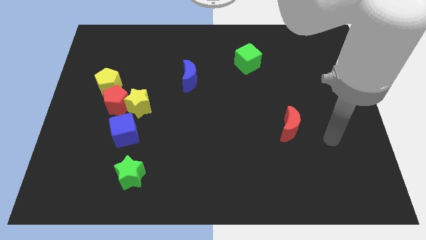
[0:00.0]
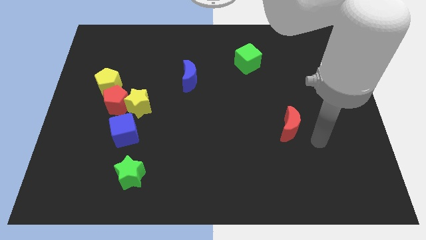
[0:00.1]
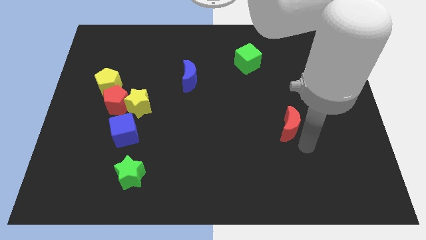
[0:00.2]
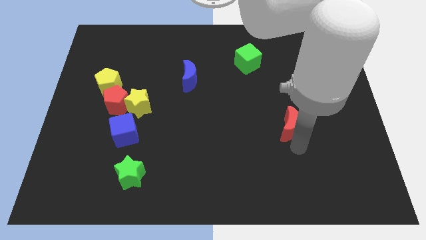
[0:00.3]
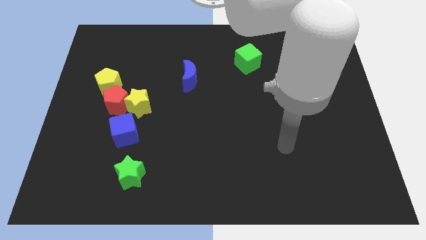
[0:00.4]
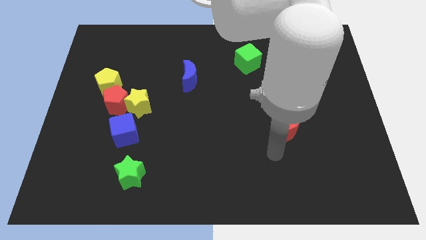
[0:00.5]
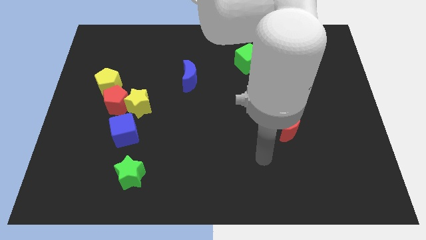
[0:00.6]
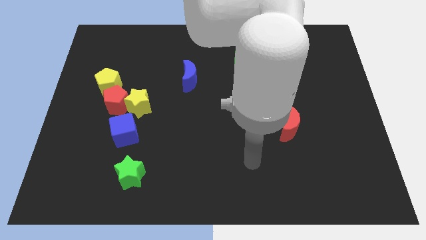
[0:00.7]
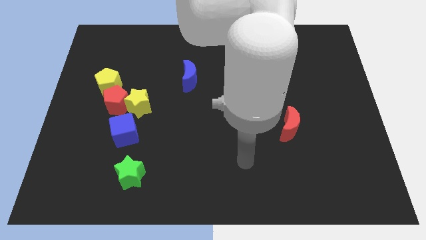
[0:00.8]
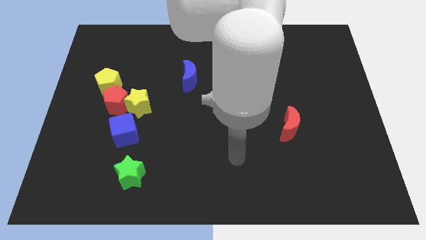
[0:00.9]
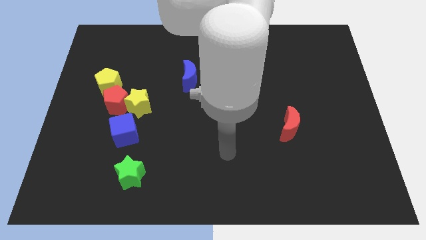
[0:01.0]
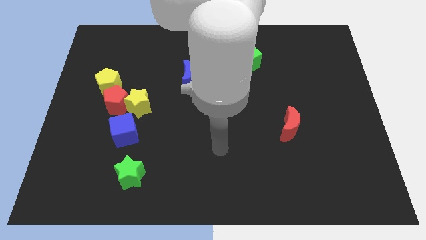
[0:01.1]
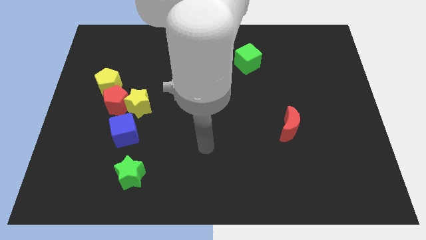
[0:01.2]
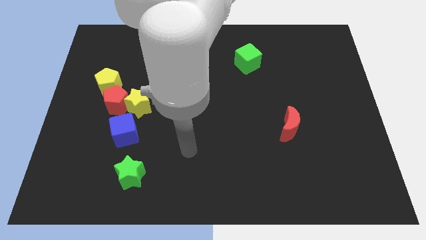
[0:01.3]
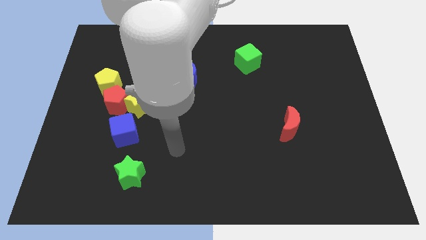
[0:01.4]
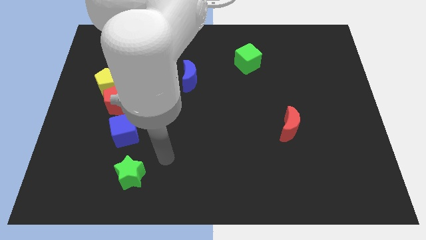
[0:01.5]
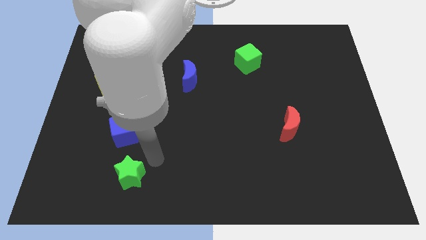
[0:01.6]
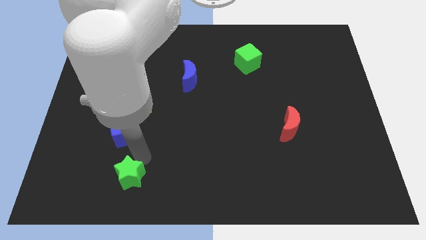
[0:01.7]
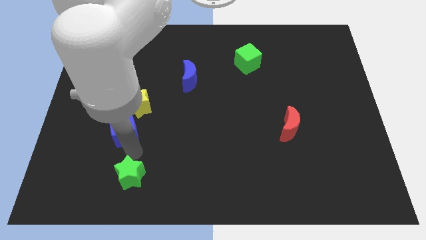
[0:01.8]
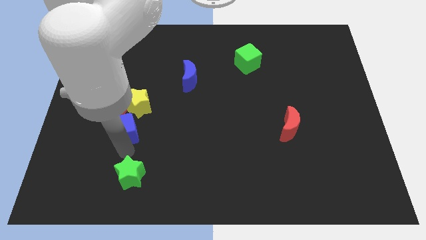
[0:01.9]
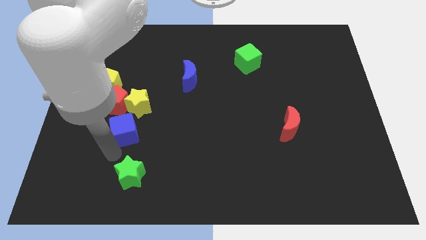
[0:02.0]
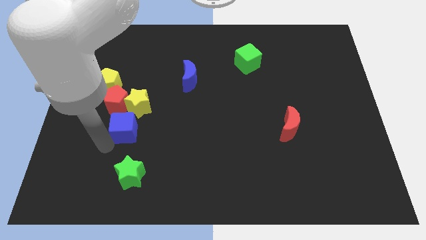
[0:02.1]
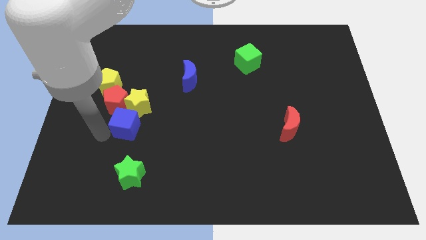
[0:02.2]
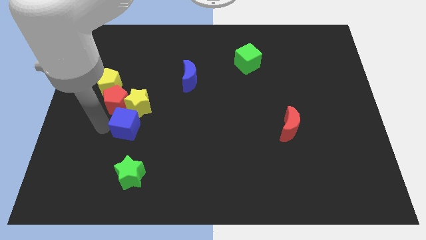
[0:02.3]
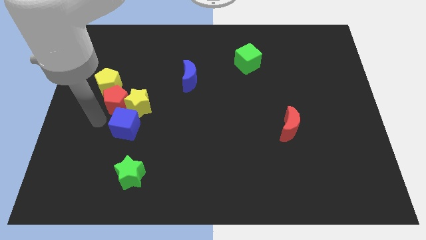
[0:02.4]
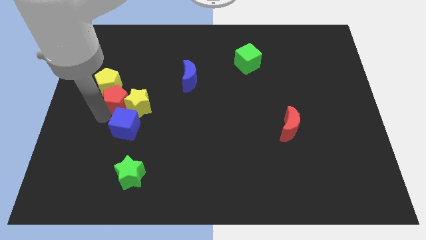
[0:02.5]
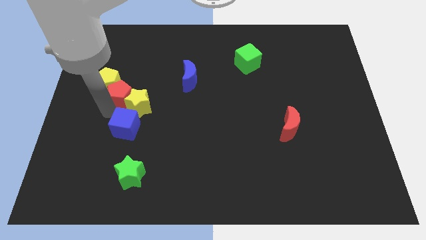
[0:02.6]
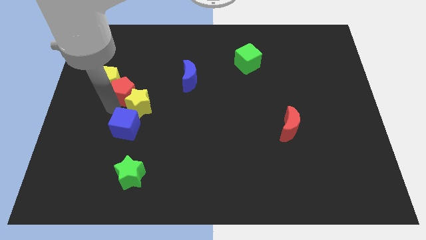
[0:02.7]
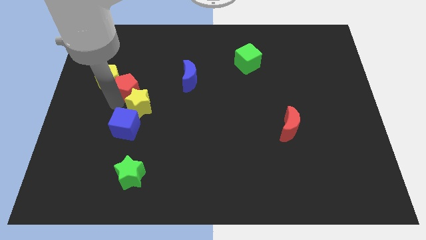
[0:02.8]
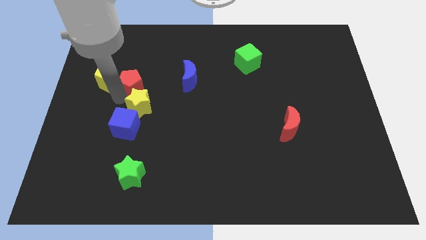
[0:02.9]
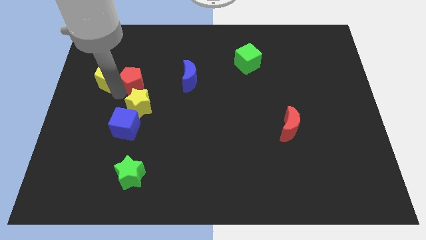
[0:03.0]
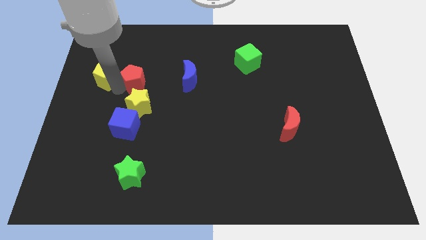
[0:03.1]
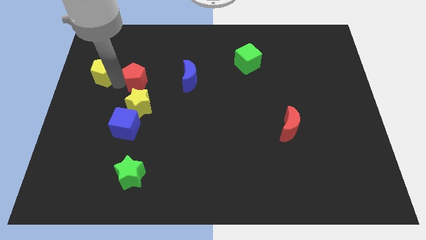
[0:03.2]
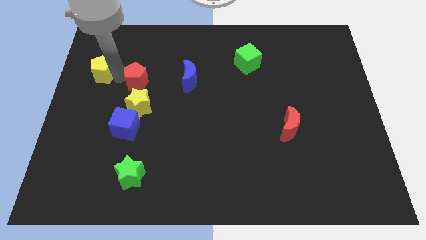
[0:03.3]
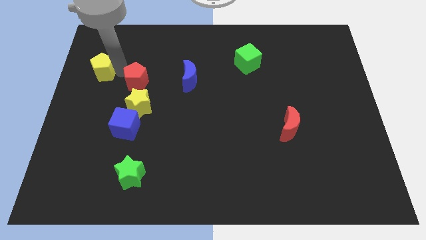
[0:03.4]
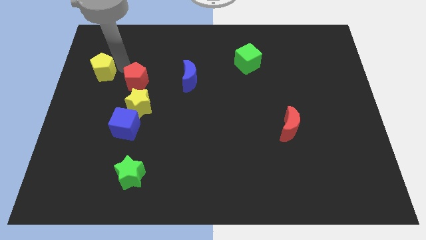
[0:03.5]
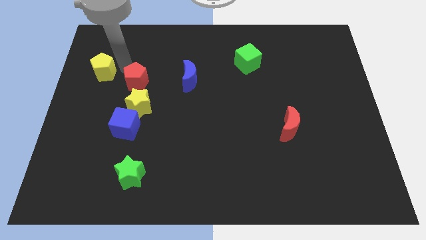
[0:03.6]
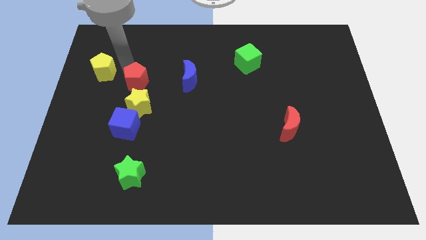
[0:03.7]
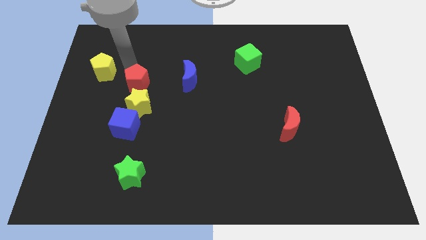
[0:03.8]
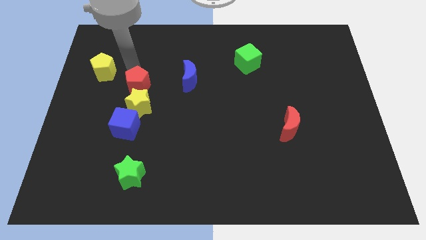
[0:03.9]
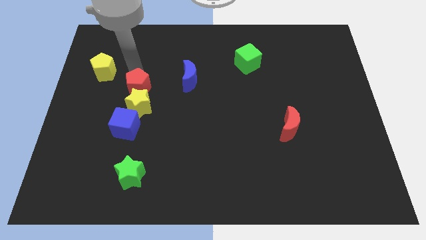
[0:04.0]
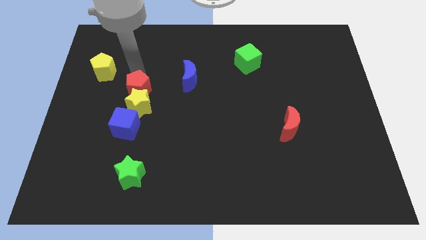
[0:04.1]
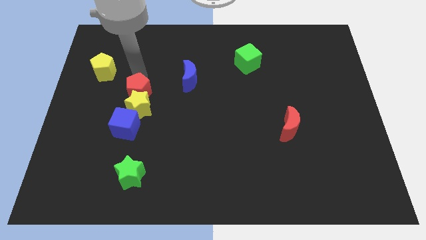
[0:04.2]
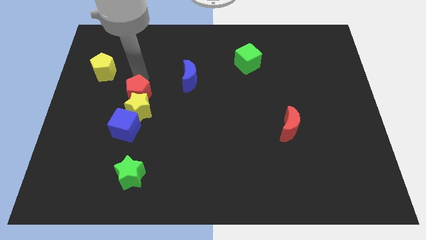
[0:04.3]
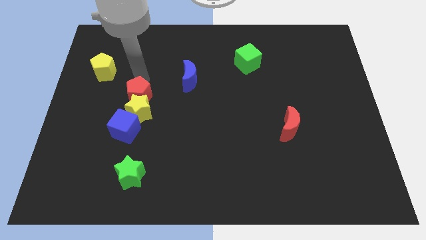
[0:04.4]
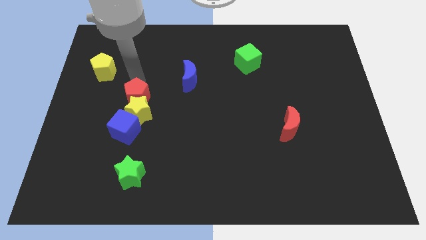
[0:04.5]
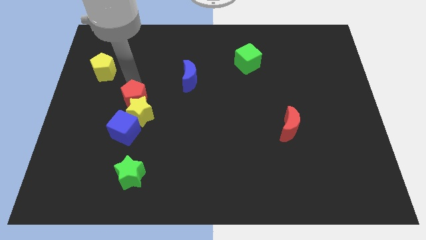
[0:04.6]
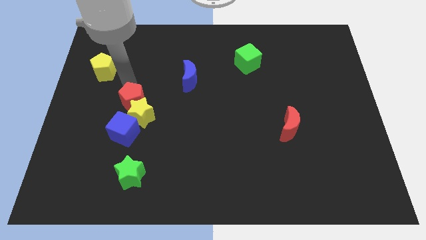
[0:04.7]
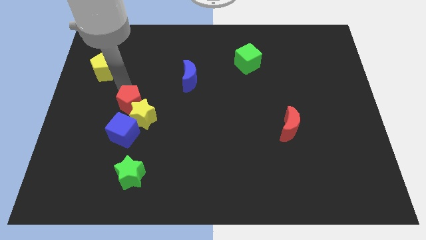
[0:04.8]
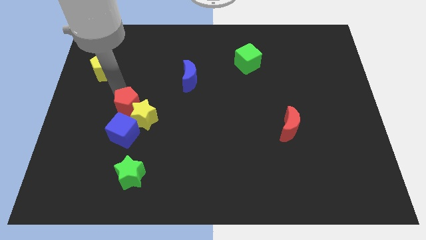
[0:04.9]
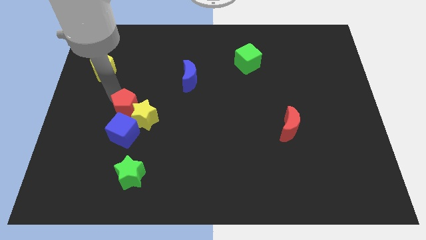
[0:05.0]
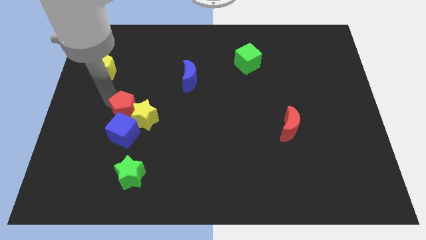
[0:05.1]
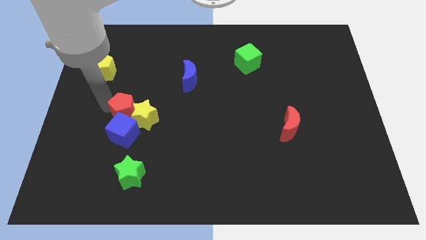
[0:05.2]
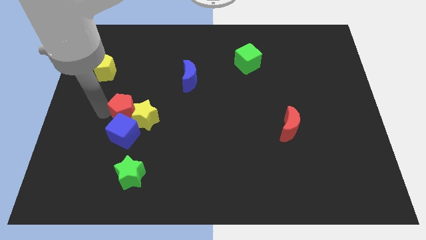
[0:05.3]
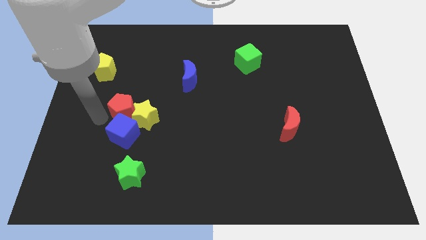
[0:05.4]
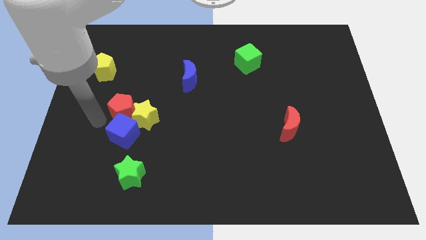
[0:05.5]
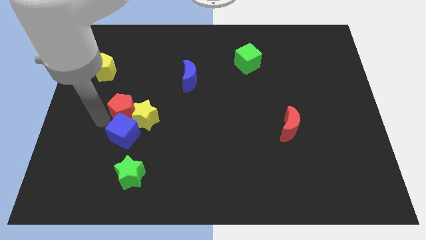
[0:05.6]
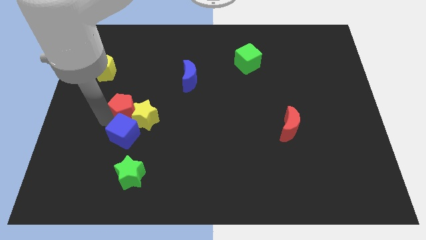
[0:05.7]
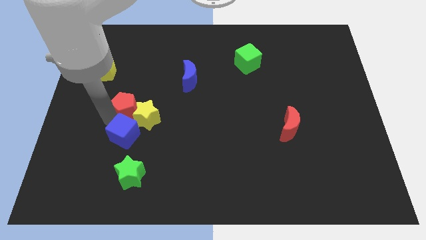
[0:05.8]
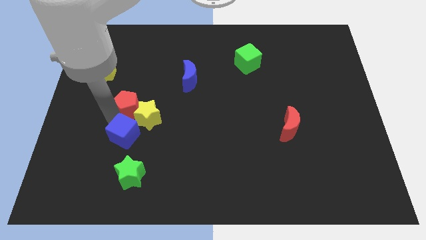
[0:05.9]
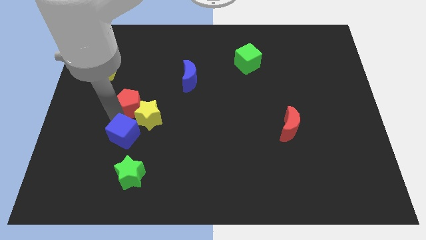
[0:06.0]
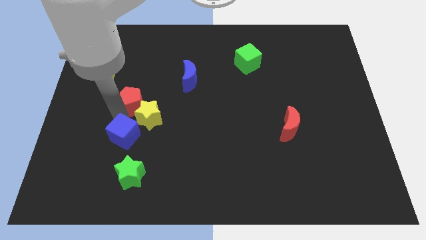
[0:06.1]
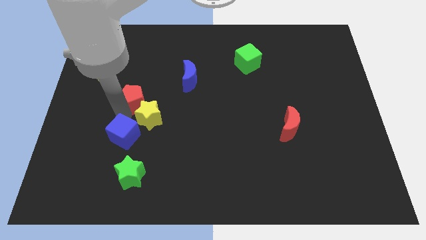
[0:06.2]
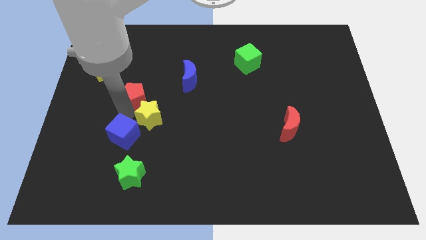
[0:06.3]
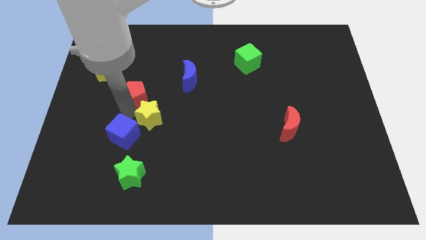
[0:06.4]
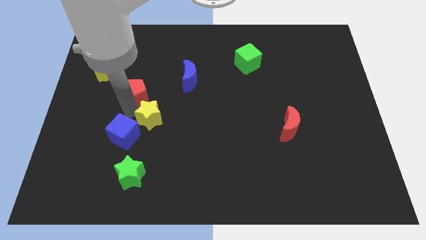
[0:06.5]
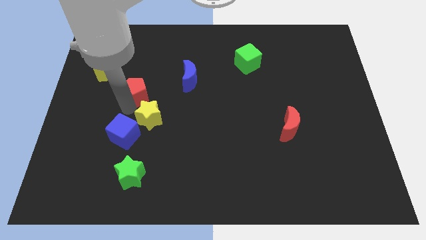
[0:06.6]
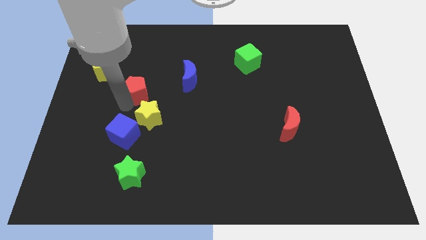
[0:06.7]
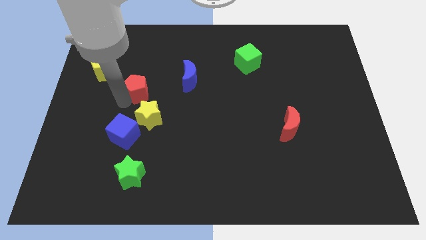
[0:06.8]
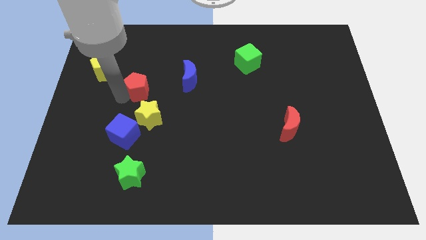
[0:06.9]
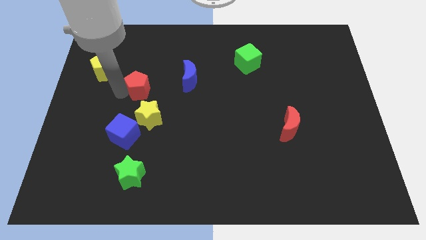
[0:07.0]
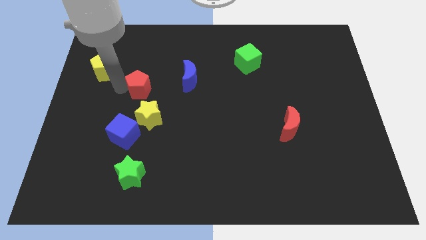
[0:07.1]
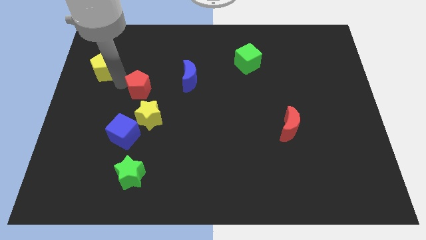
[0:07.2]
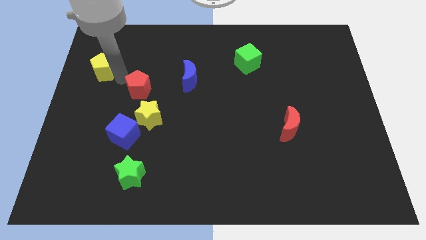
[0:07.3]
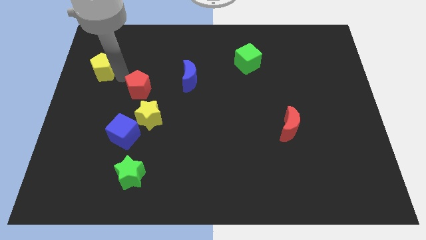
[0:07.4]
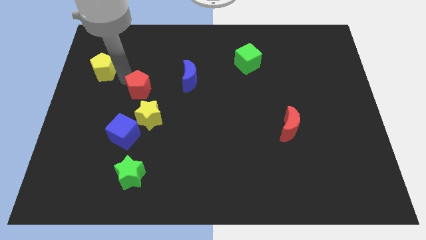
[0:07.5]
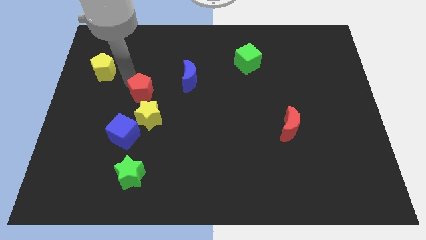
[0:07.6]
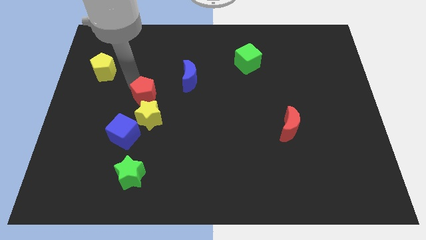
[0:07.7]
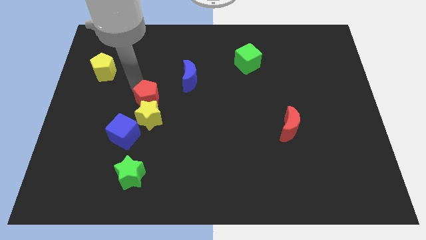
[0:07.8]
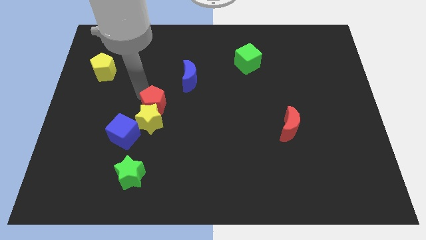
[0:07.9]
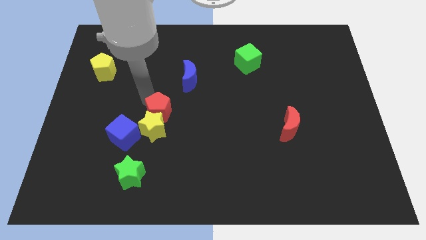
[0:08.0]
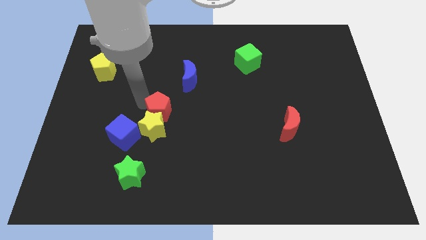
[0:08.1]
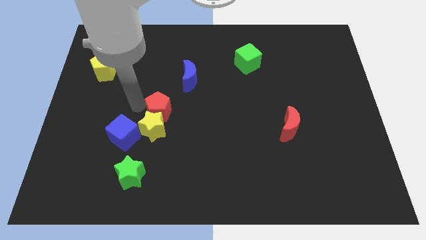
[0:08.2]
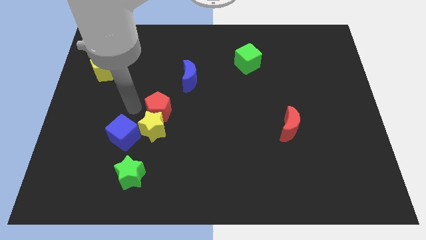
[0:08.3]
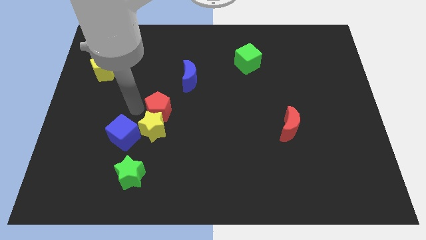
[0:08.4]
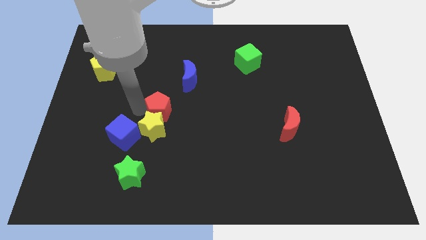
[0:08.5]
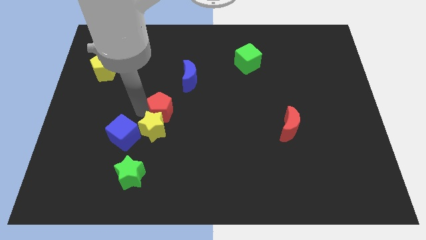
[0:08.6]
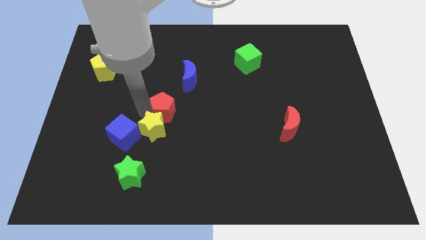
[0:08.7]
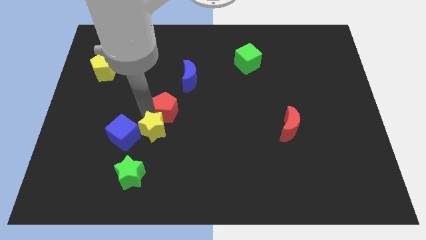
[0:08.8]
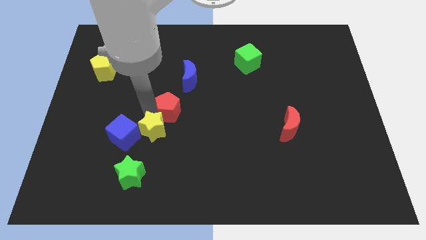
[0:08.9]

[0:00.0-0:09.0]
slide the red pentagon below the blue moon
